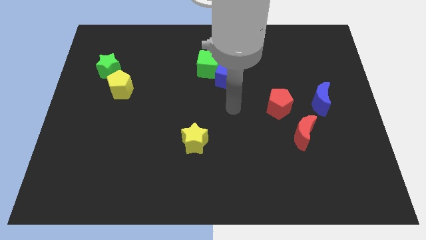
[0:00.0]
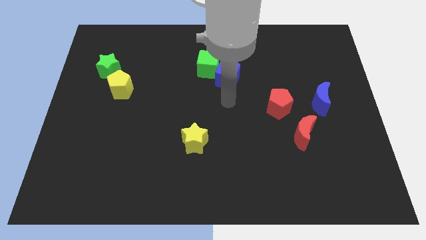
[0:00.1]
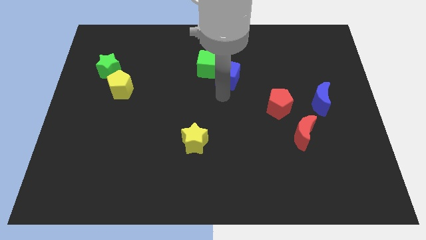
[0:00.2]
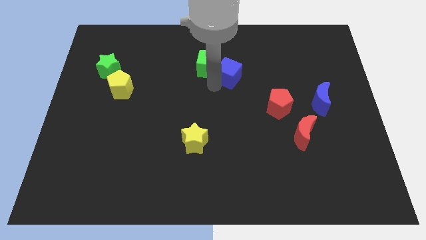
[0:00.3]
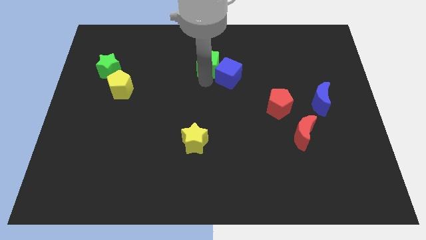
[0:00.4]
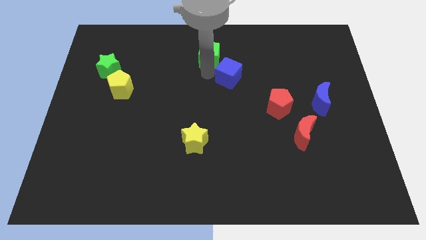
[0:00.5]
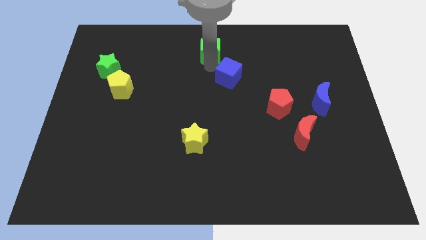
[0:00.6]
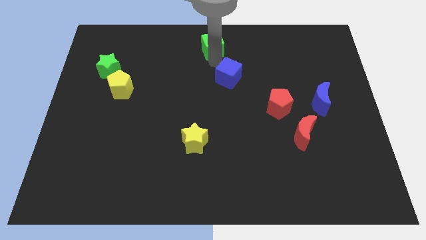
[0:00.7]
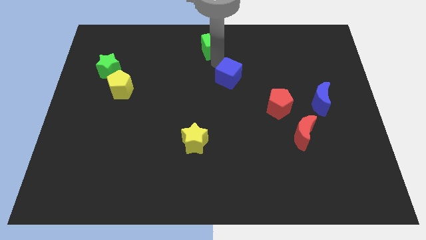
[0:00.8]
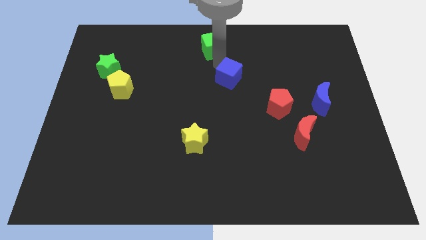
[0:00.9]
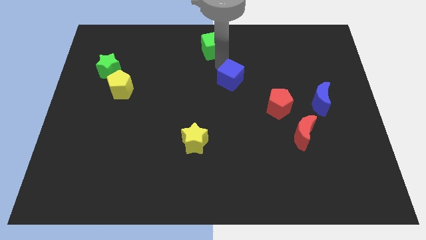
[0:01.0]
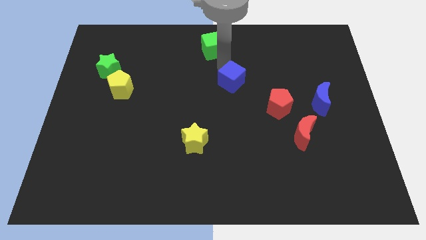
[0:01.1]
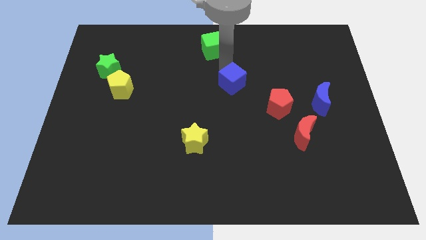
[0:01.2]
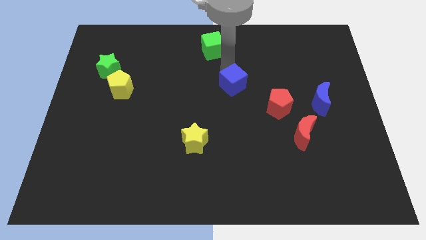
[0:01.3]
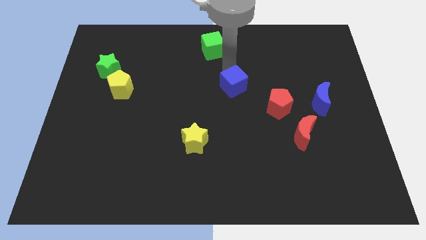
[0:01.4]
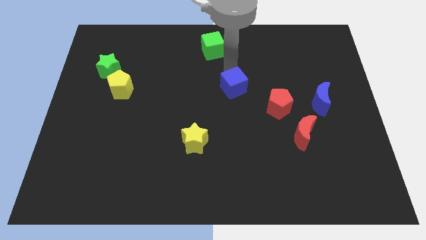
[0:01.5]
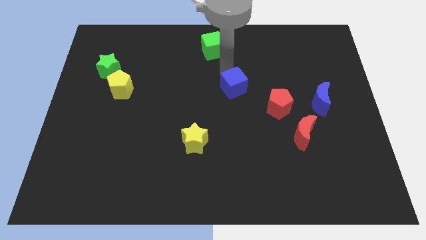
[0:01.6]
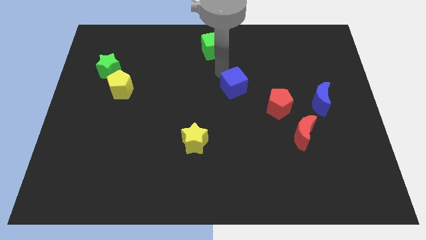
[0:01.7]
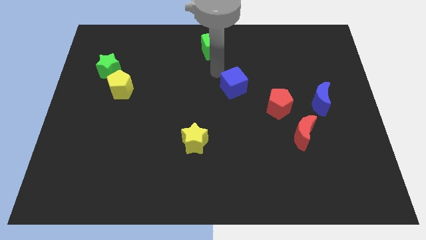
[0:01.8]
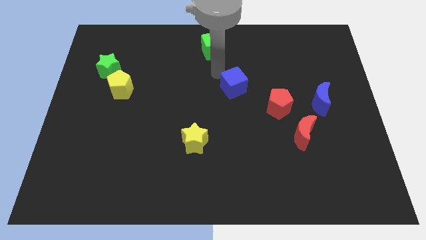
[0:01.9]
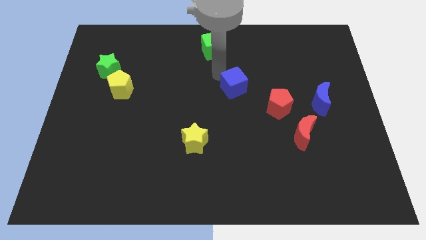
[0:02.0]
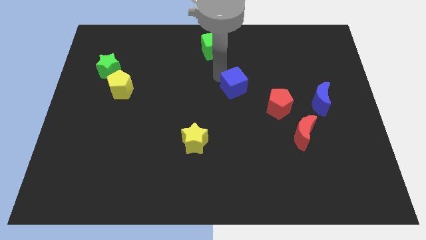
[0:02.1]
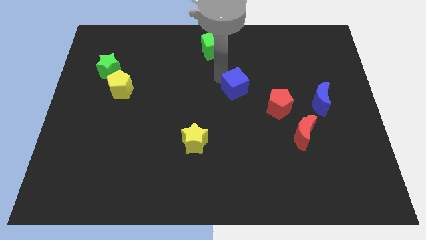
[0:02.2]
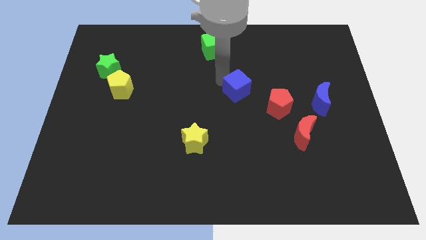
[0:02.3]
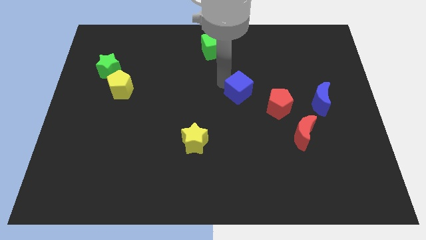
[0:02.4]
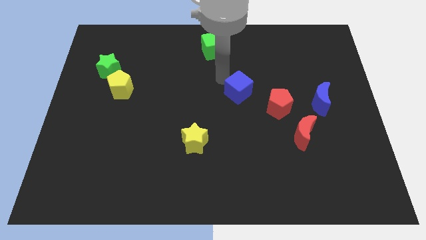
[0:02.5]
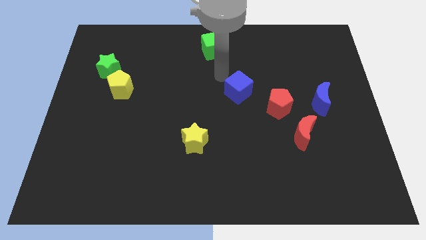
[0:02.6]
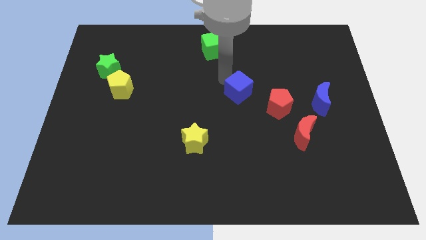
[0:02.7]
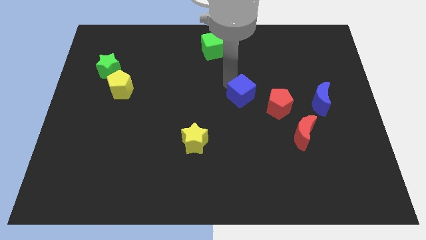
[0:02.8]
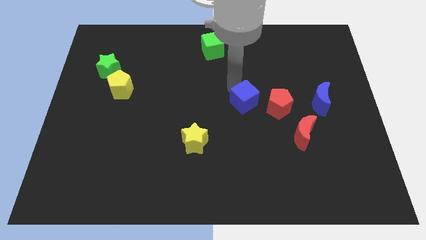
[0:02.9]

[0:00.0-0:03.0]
move the blue cube diagonally down and right a little

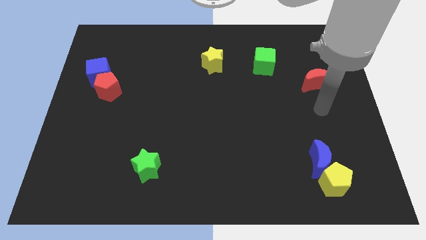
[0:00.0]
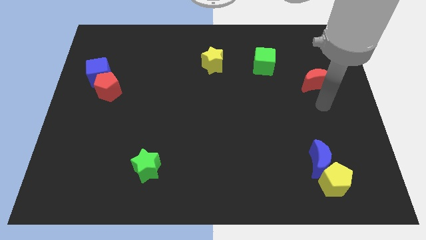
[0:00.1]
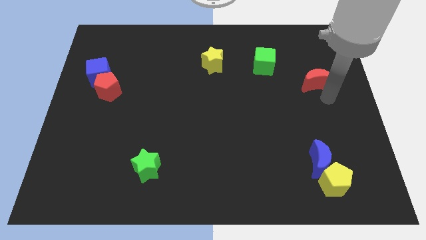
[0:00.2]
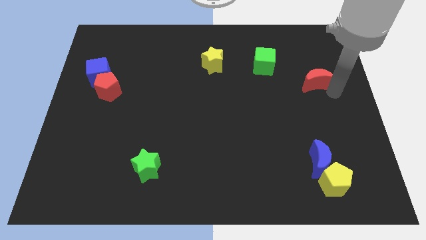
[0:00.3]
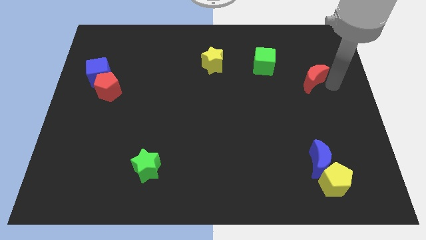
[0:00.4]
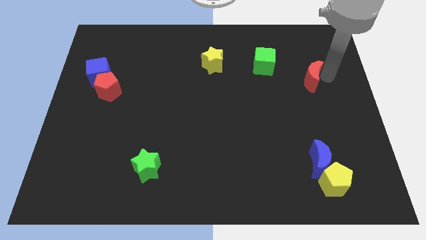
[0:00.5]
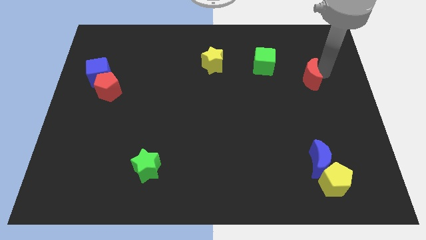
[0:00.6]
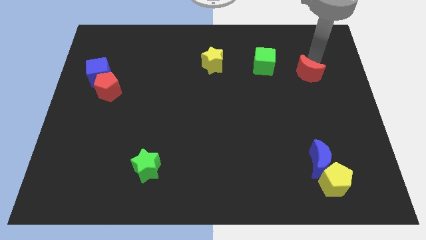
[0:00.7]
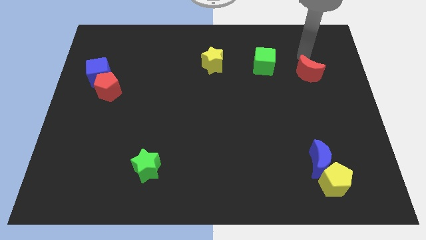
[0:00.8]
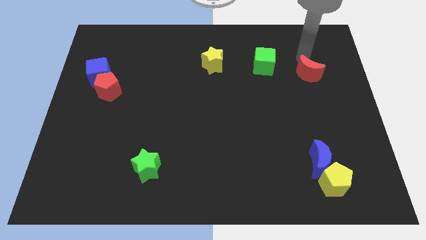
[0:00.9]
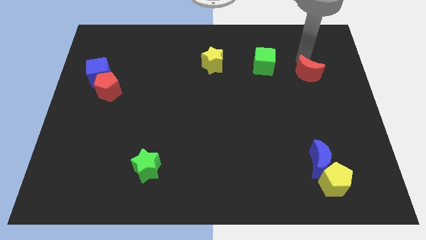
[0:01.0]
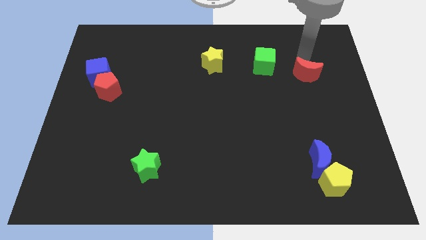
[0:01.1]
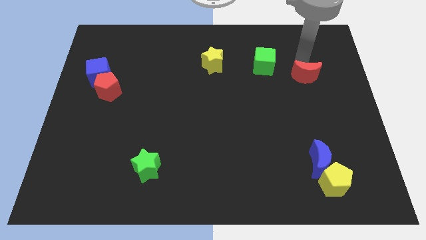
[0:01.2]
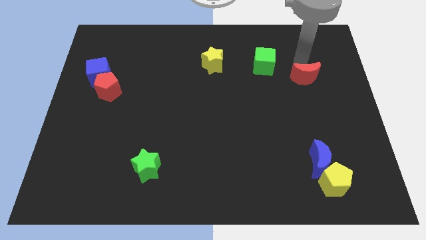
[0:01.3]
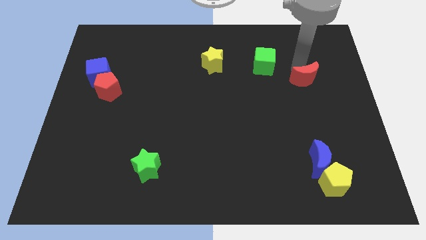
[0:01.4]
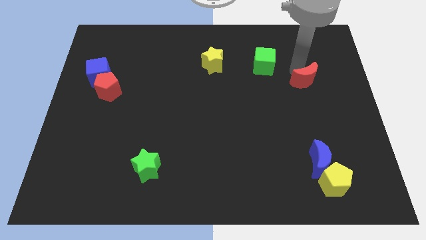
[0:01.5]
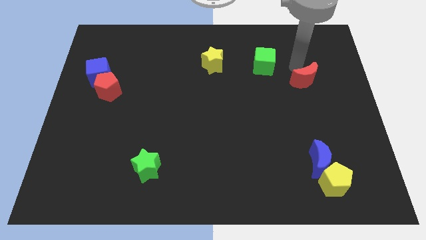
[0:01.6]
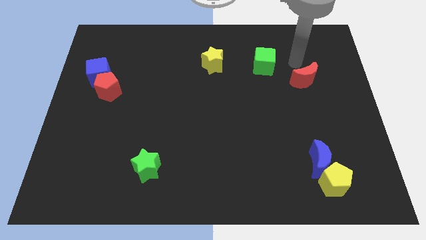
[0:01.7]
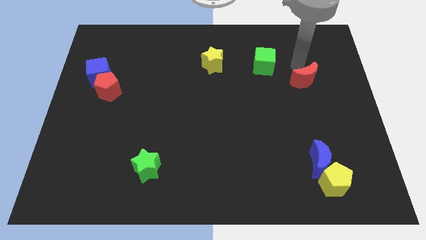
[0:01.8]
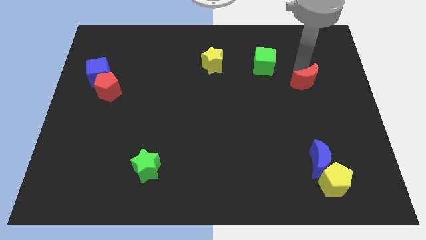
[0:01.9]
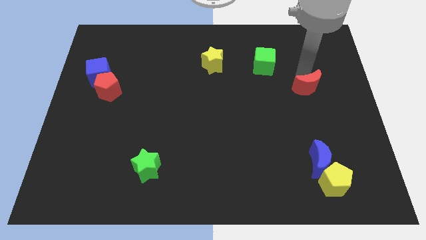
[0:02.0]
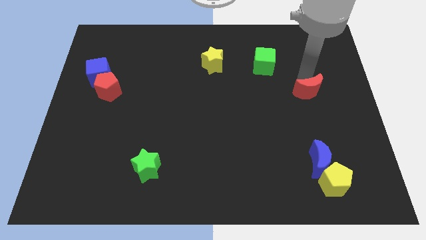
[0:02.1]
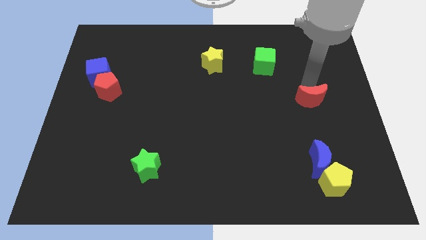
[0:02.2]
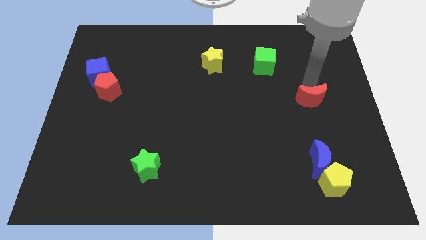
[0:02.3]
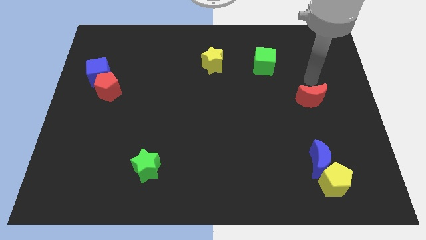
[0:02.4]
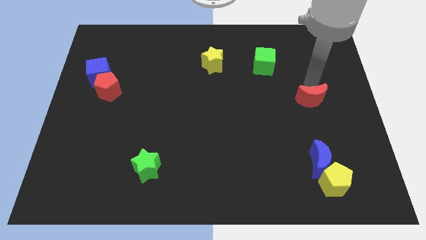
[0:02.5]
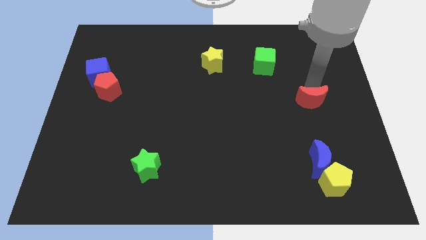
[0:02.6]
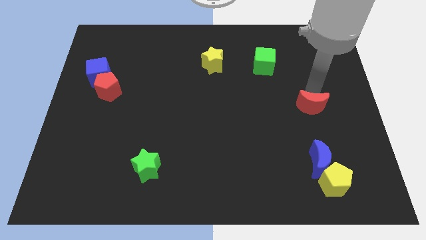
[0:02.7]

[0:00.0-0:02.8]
move the red moon downwards a bit

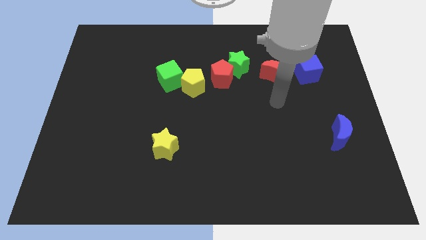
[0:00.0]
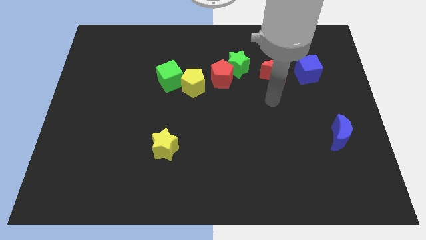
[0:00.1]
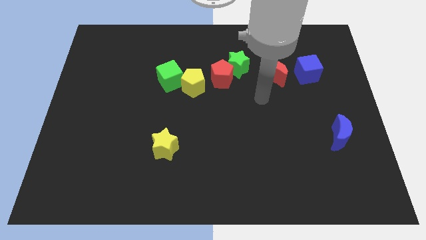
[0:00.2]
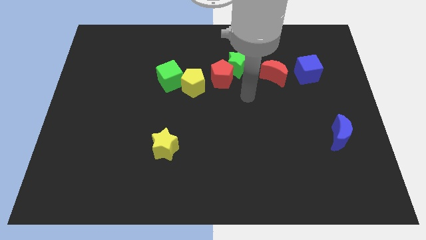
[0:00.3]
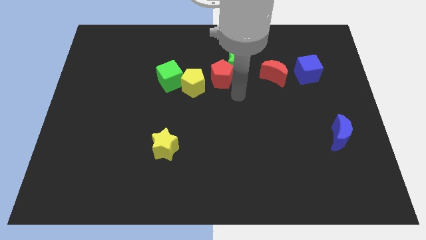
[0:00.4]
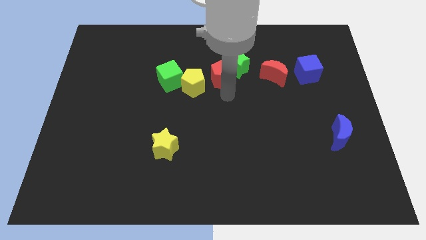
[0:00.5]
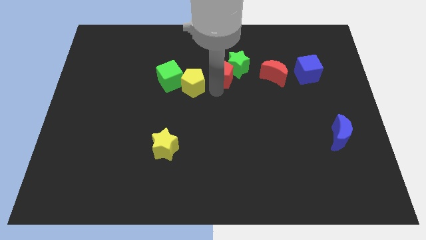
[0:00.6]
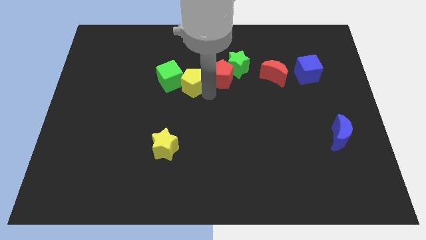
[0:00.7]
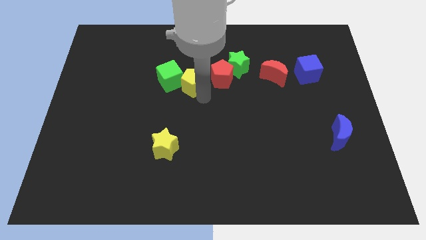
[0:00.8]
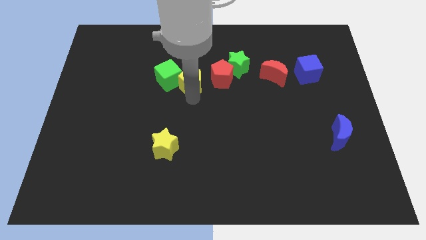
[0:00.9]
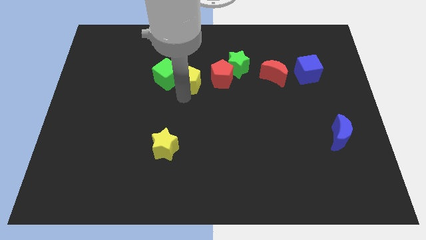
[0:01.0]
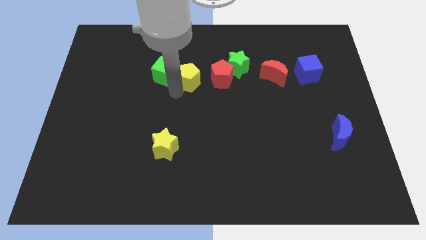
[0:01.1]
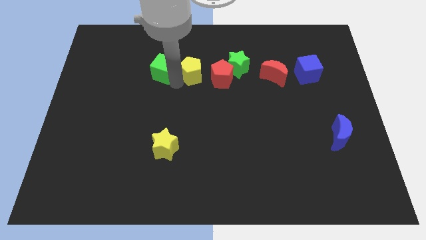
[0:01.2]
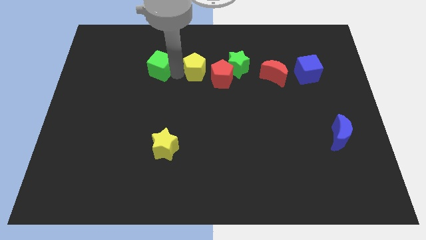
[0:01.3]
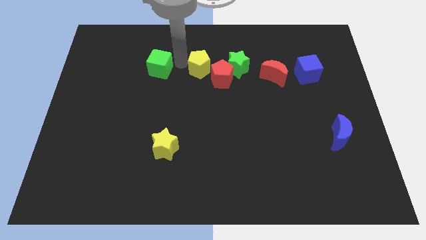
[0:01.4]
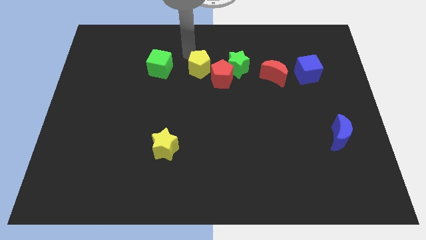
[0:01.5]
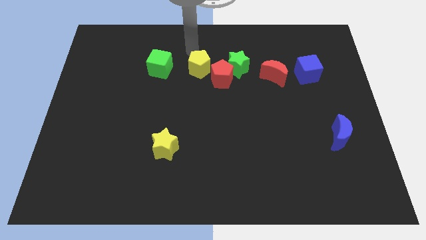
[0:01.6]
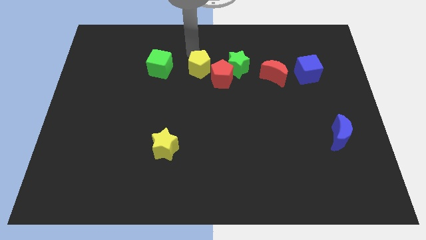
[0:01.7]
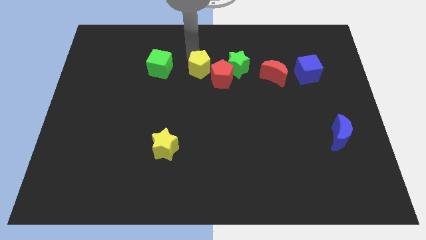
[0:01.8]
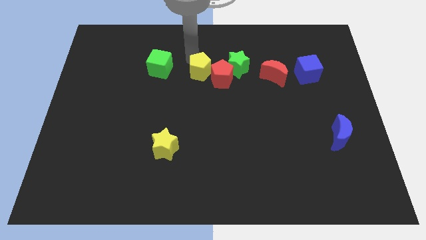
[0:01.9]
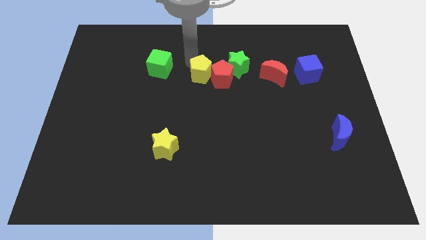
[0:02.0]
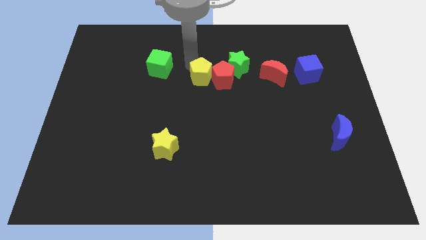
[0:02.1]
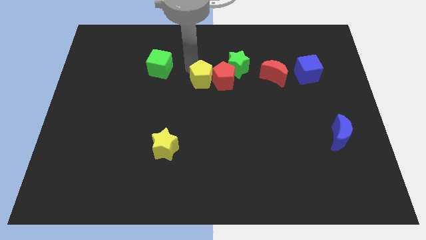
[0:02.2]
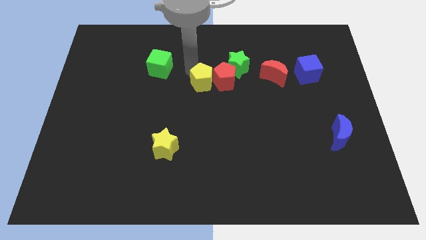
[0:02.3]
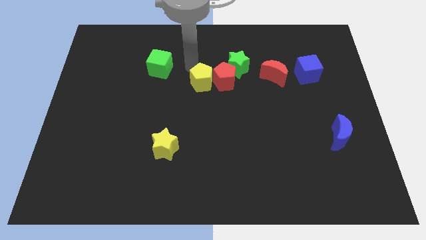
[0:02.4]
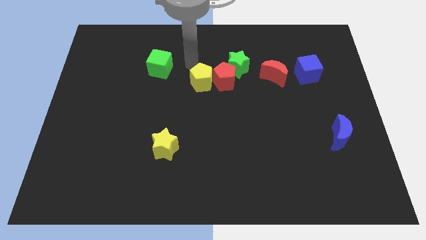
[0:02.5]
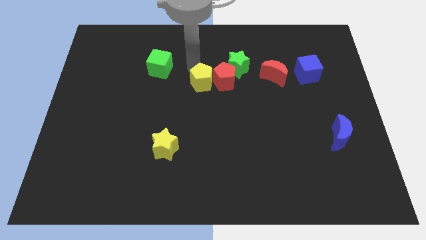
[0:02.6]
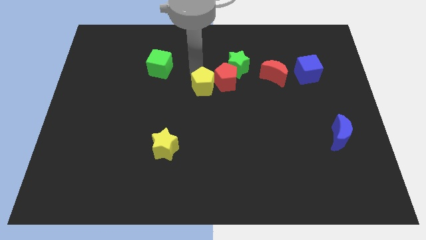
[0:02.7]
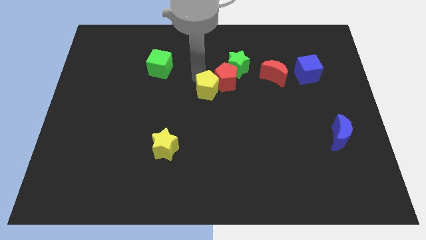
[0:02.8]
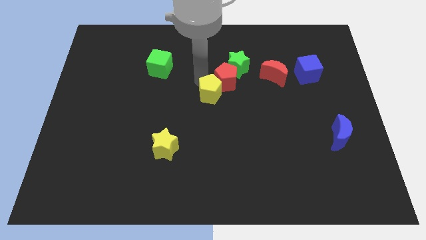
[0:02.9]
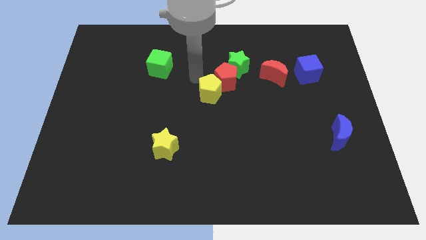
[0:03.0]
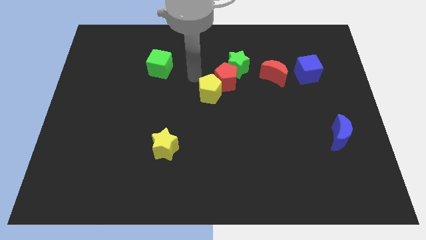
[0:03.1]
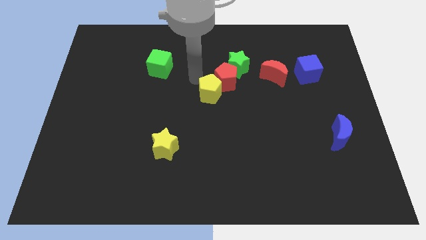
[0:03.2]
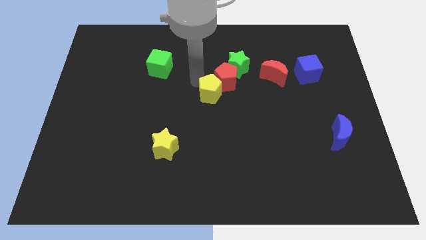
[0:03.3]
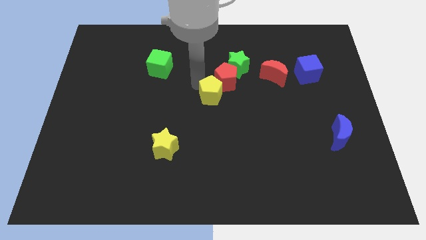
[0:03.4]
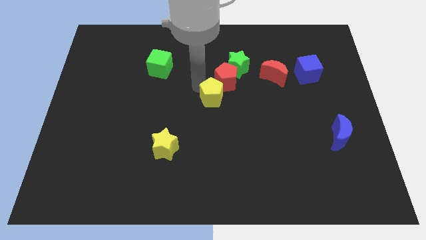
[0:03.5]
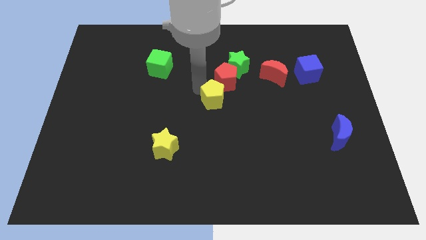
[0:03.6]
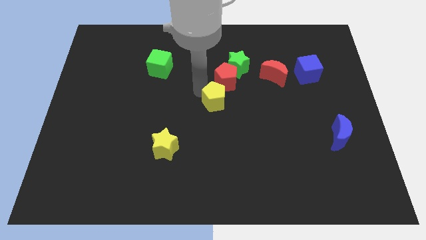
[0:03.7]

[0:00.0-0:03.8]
push the yellow pentagon a little bit downwards and then to the right
